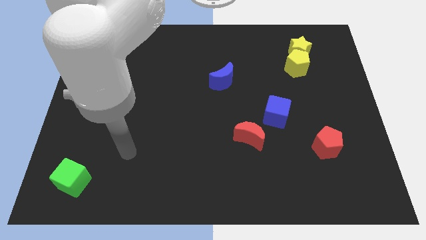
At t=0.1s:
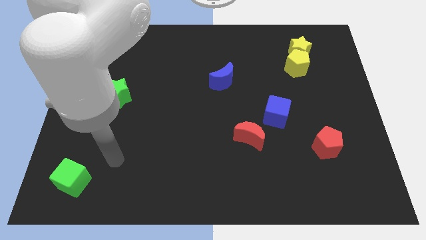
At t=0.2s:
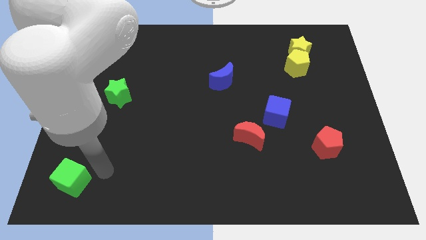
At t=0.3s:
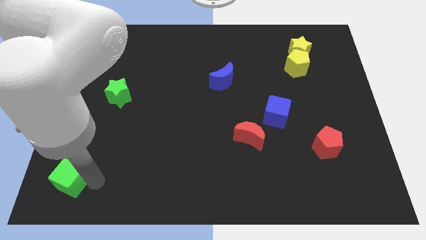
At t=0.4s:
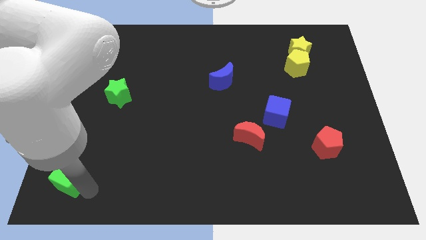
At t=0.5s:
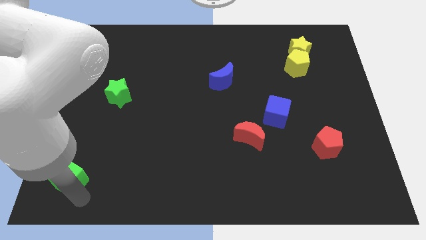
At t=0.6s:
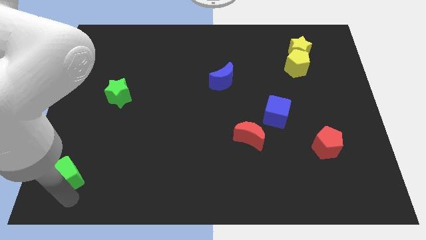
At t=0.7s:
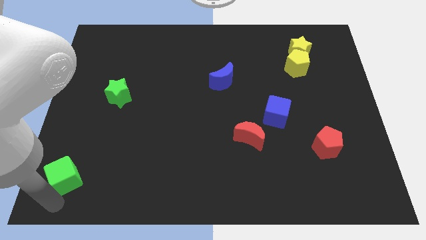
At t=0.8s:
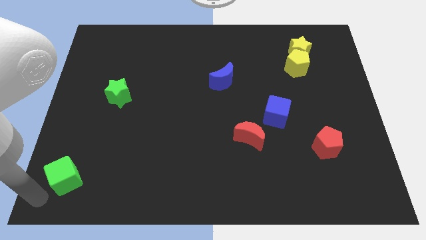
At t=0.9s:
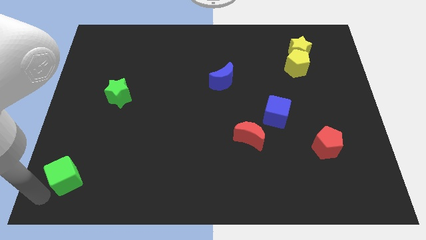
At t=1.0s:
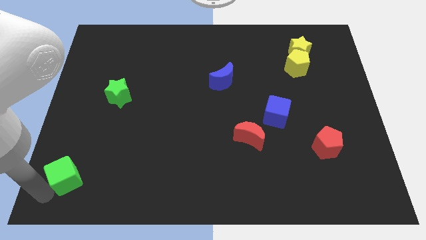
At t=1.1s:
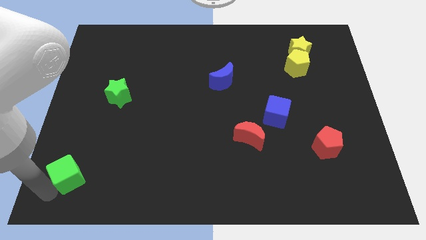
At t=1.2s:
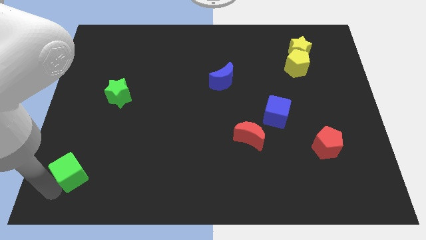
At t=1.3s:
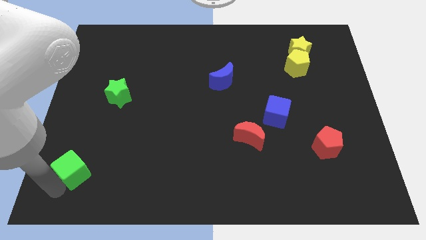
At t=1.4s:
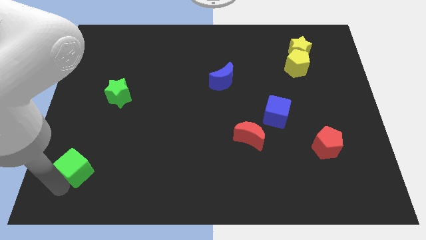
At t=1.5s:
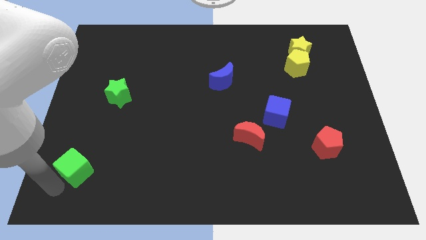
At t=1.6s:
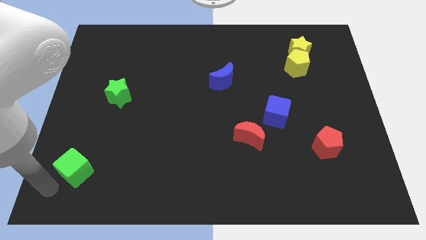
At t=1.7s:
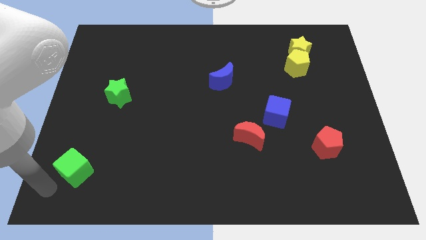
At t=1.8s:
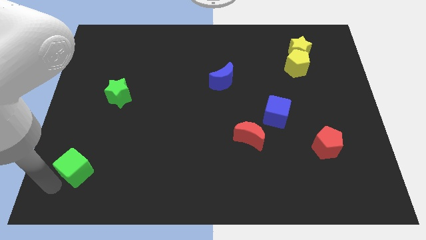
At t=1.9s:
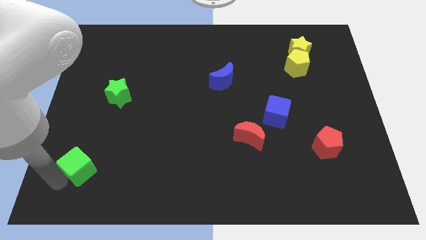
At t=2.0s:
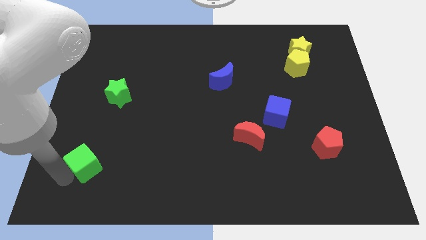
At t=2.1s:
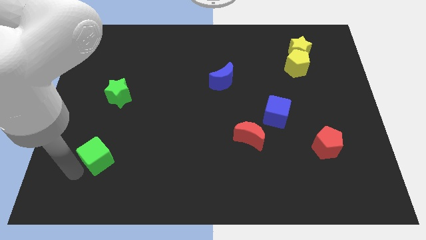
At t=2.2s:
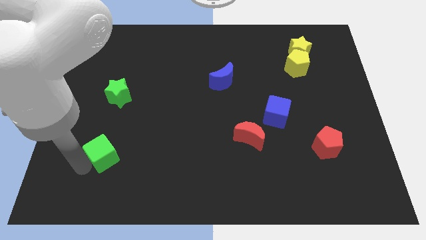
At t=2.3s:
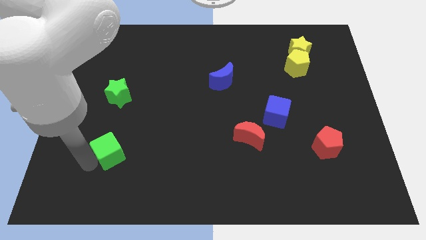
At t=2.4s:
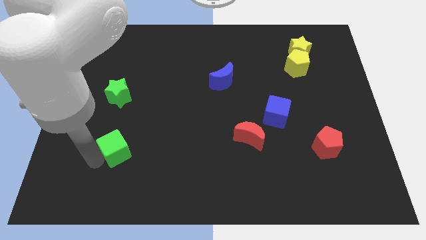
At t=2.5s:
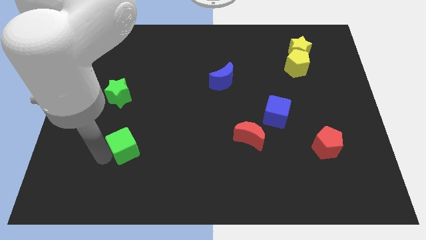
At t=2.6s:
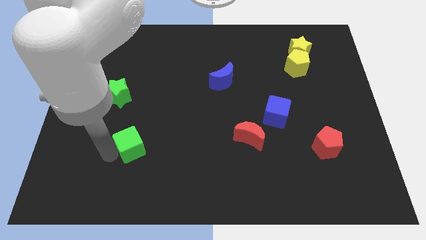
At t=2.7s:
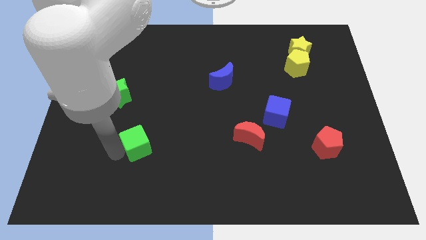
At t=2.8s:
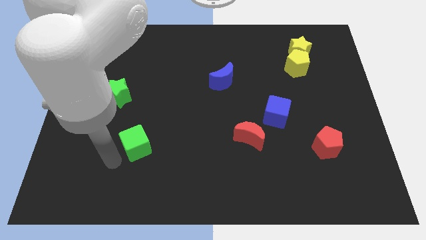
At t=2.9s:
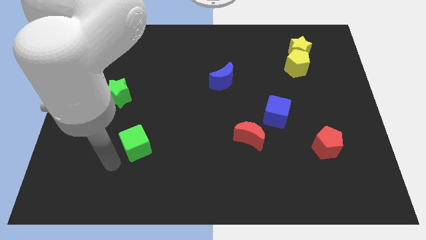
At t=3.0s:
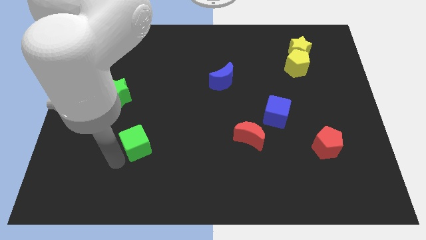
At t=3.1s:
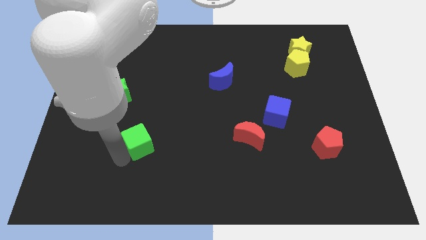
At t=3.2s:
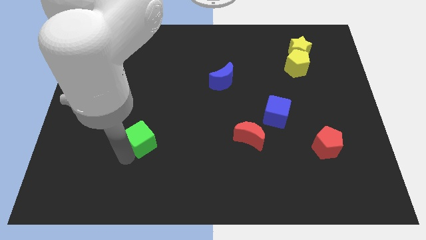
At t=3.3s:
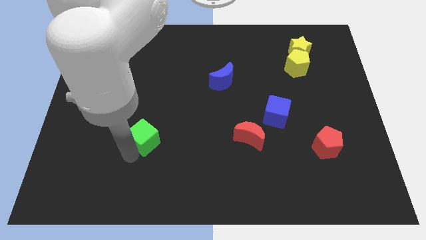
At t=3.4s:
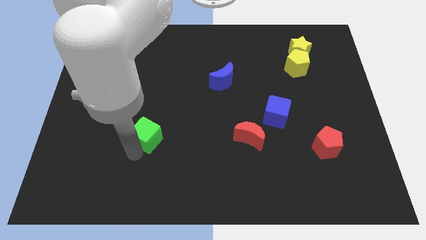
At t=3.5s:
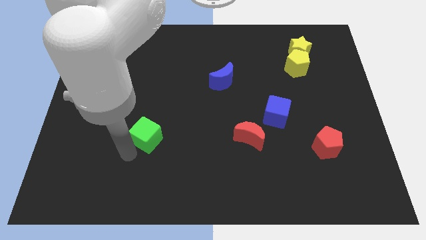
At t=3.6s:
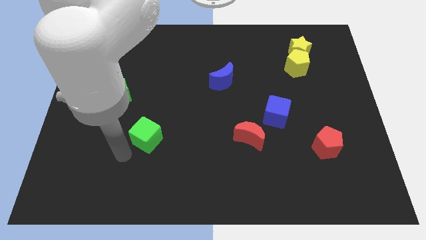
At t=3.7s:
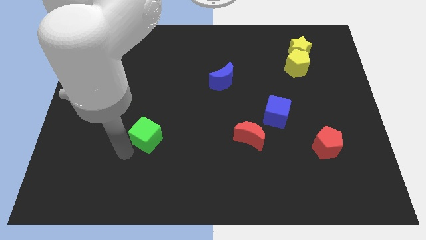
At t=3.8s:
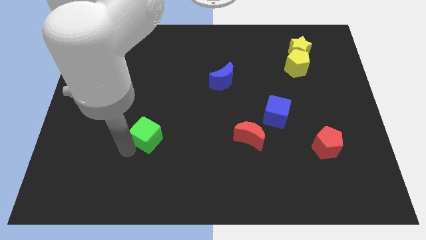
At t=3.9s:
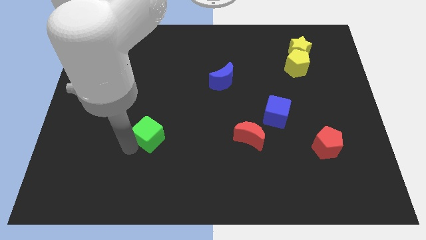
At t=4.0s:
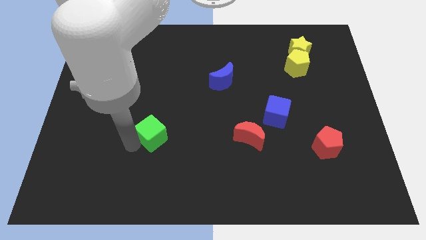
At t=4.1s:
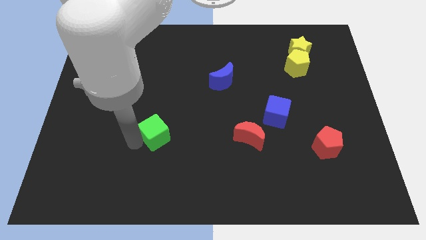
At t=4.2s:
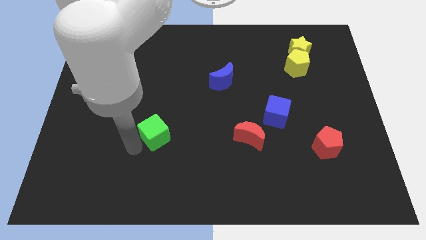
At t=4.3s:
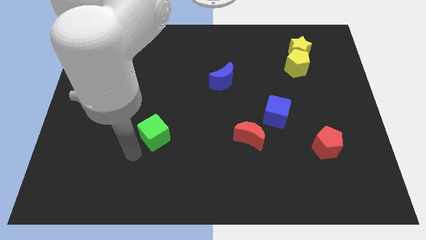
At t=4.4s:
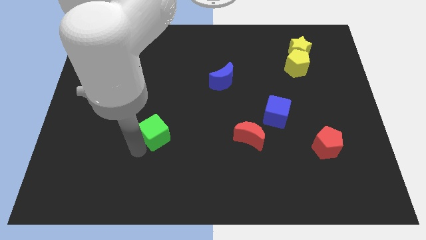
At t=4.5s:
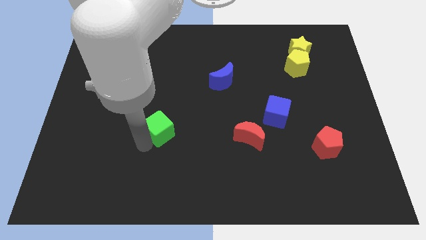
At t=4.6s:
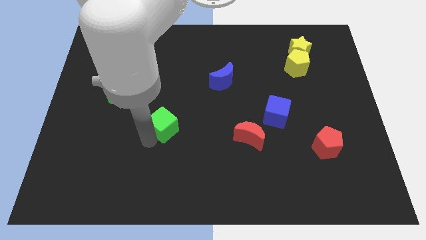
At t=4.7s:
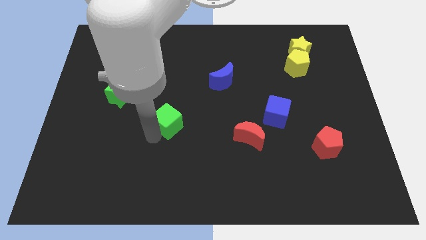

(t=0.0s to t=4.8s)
put the green cube to the middle

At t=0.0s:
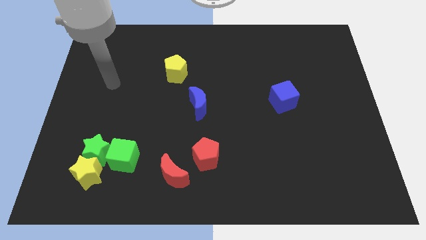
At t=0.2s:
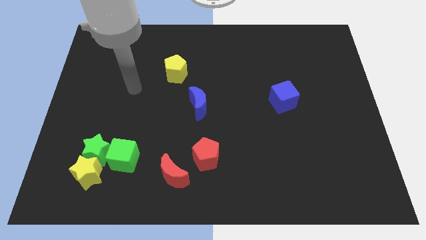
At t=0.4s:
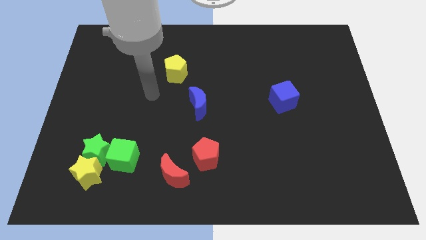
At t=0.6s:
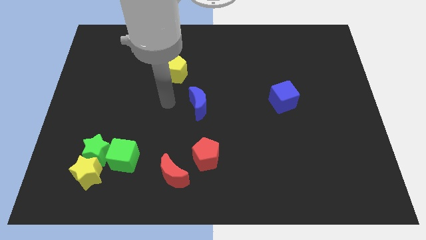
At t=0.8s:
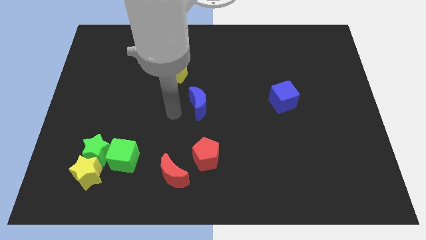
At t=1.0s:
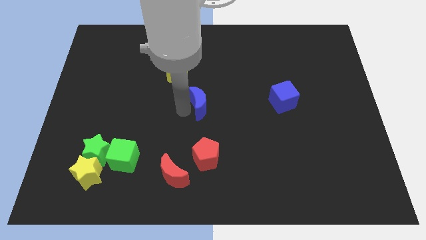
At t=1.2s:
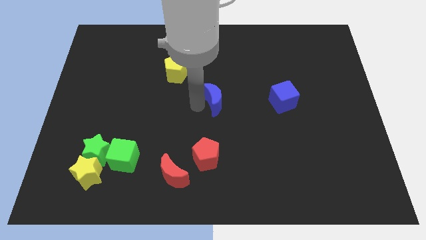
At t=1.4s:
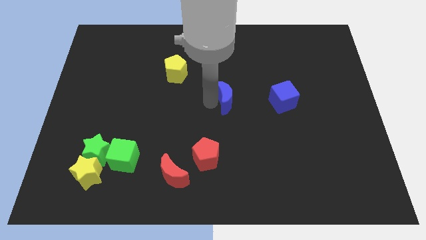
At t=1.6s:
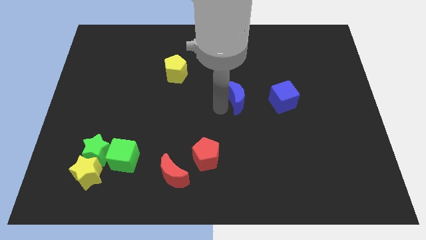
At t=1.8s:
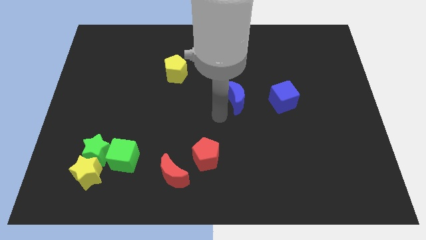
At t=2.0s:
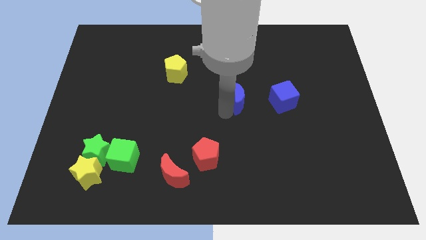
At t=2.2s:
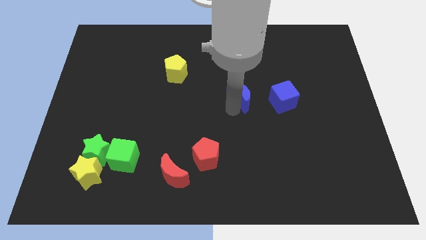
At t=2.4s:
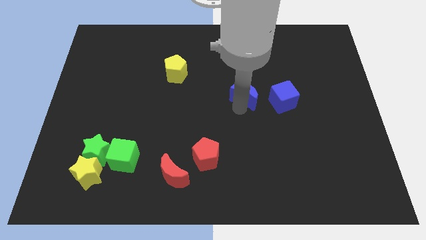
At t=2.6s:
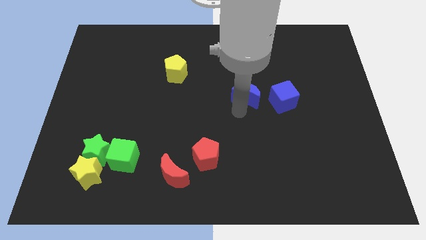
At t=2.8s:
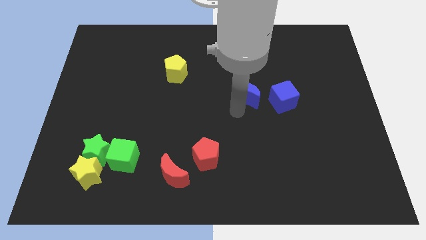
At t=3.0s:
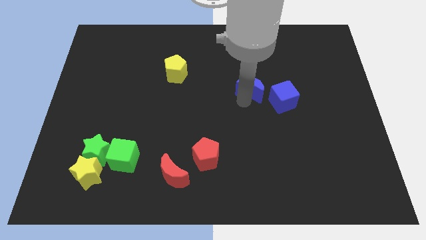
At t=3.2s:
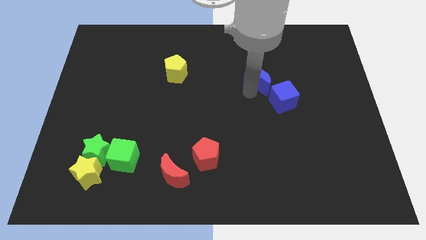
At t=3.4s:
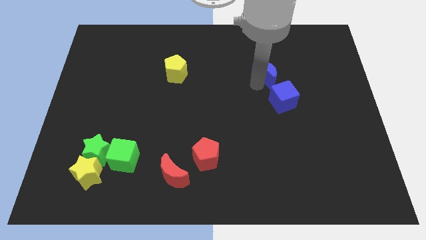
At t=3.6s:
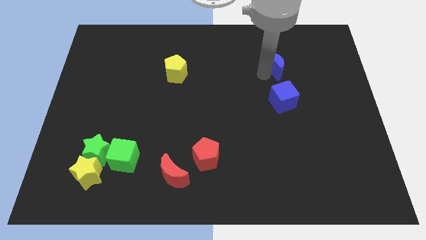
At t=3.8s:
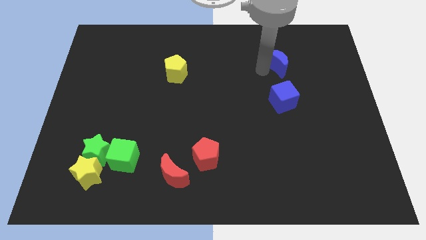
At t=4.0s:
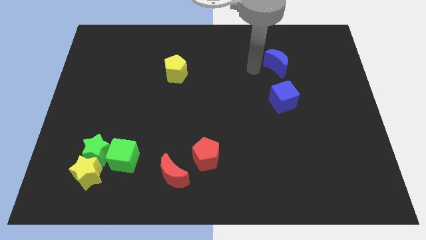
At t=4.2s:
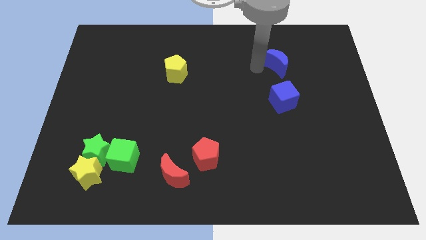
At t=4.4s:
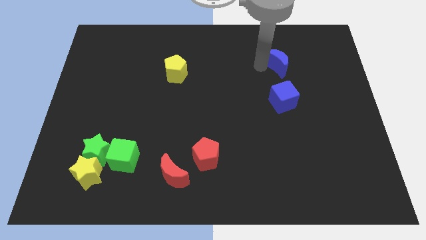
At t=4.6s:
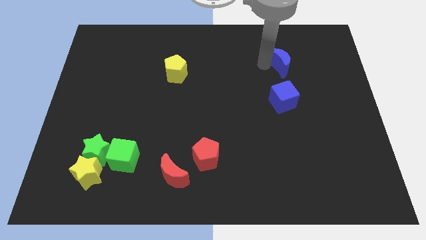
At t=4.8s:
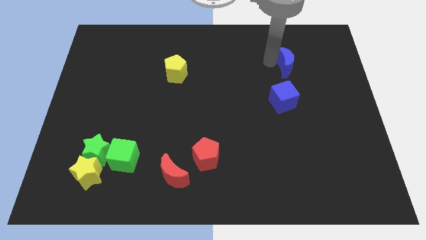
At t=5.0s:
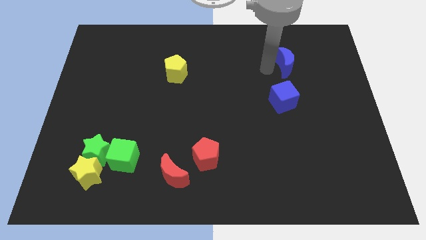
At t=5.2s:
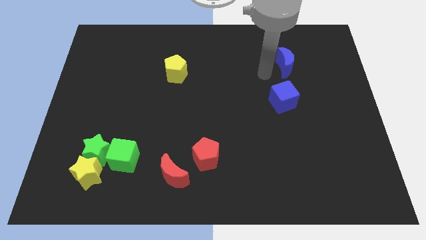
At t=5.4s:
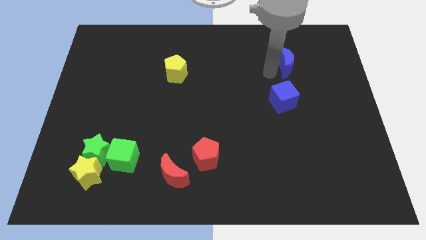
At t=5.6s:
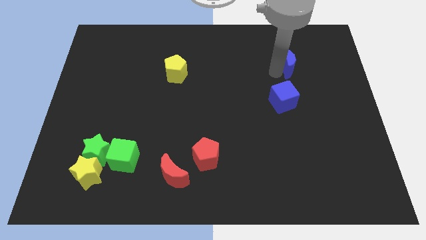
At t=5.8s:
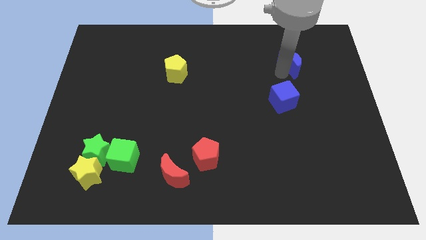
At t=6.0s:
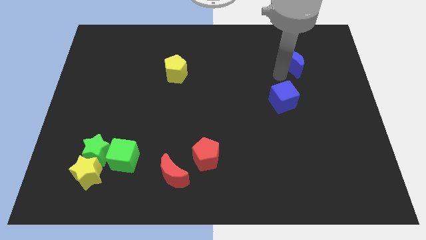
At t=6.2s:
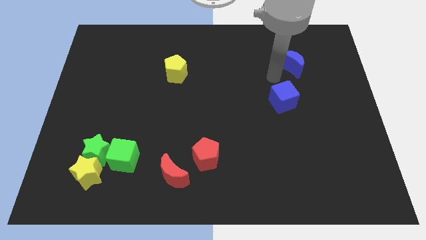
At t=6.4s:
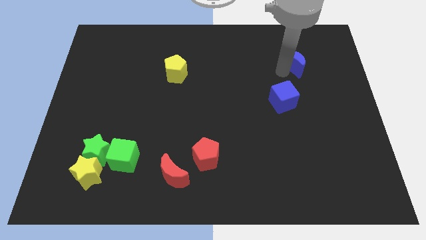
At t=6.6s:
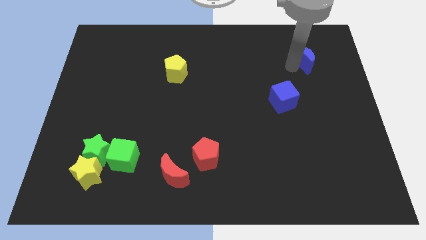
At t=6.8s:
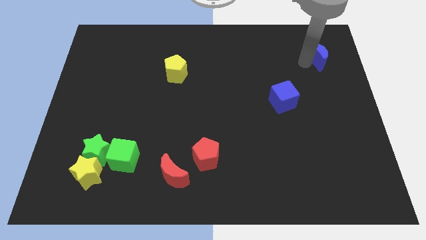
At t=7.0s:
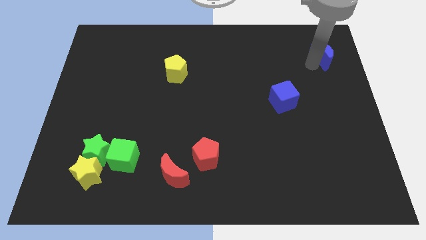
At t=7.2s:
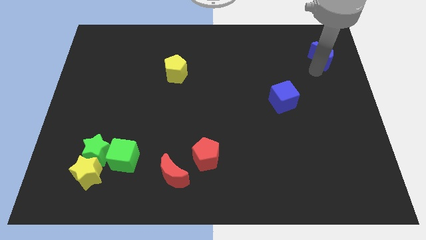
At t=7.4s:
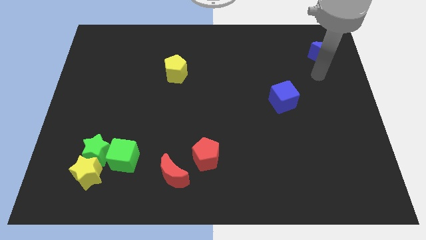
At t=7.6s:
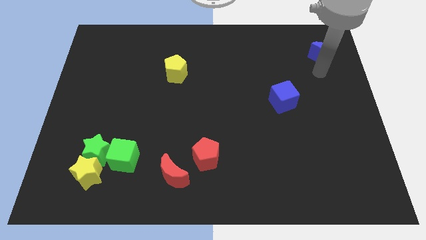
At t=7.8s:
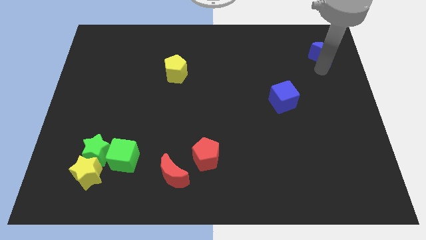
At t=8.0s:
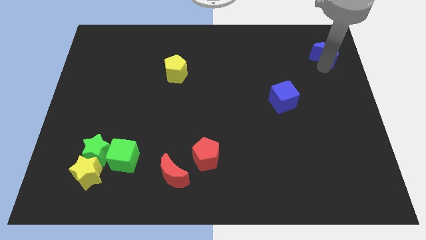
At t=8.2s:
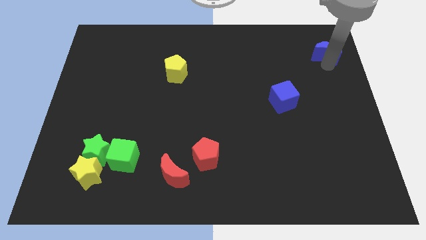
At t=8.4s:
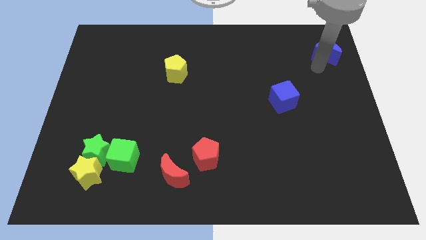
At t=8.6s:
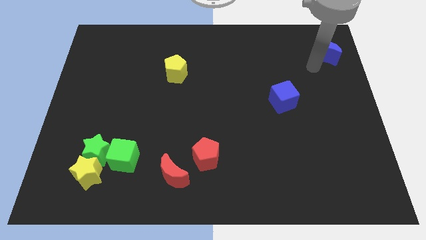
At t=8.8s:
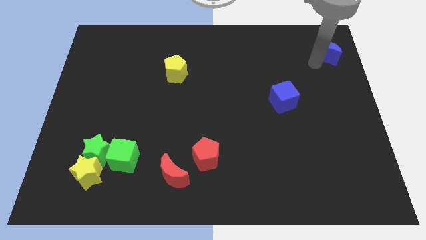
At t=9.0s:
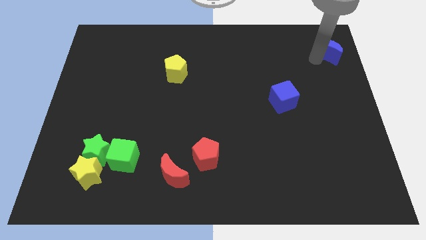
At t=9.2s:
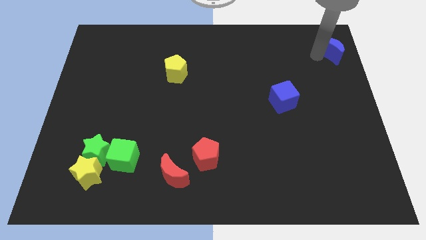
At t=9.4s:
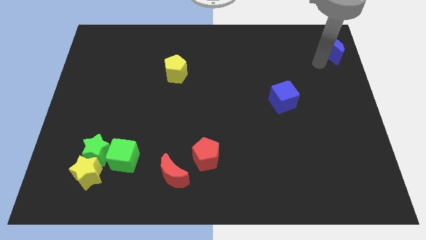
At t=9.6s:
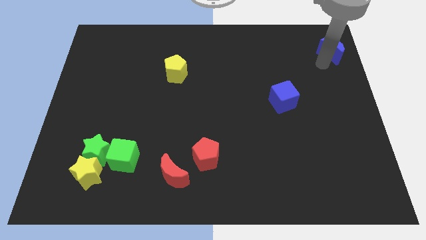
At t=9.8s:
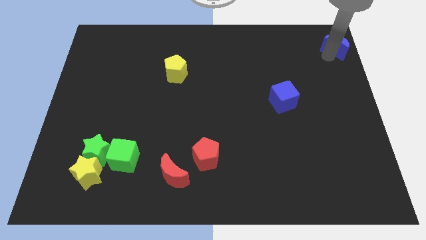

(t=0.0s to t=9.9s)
move the blue moon to the upper right corner
